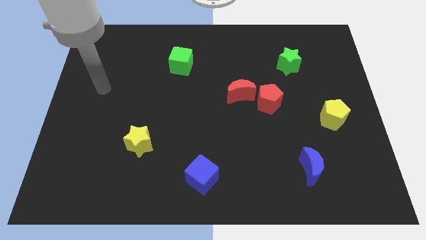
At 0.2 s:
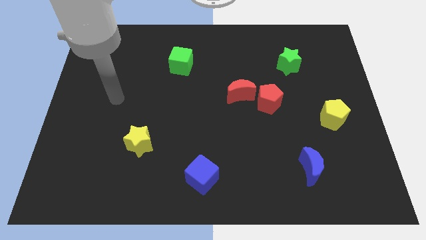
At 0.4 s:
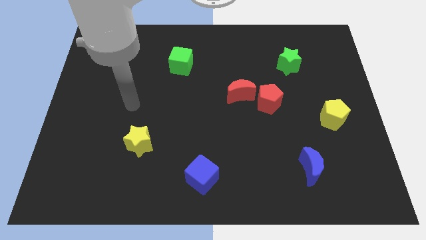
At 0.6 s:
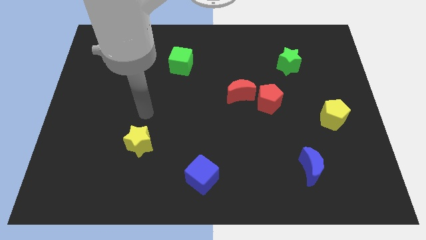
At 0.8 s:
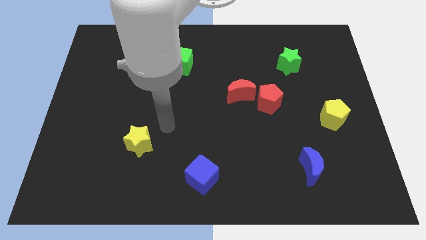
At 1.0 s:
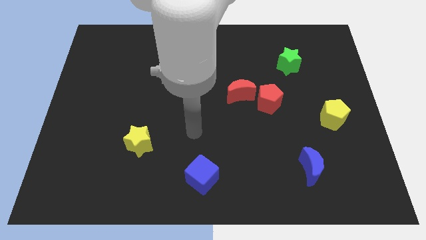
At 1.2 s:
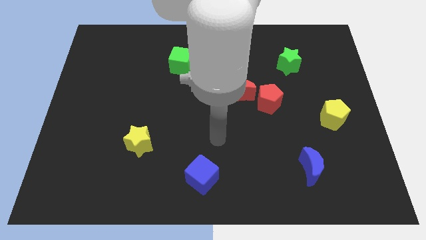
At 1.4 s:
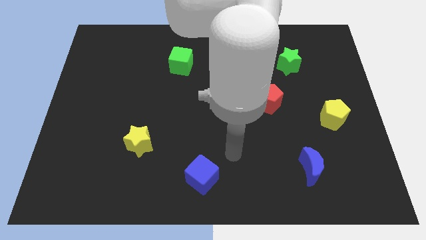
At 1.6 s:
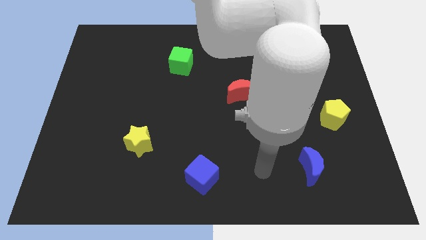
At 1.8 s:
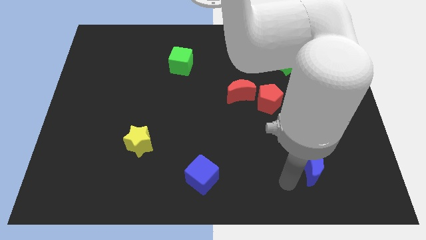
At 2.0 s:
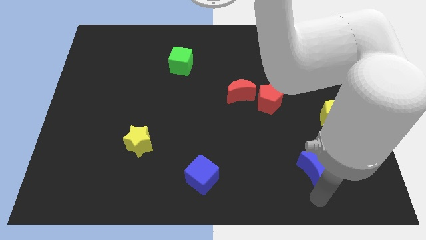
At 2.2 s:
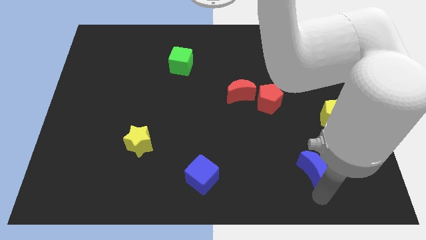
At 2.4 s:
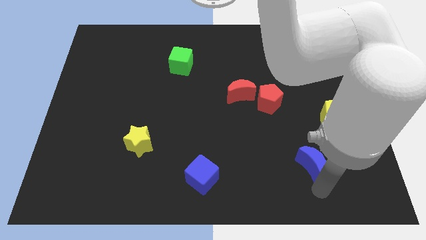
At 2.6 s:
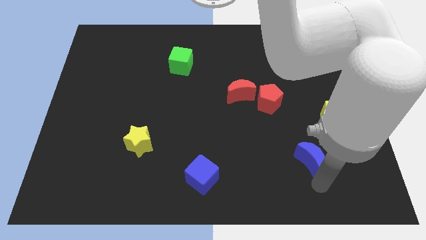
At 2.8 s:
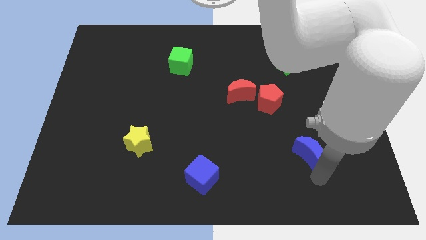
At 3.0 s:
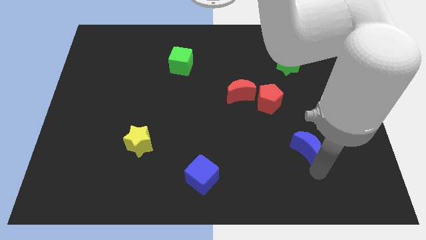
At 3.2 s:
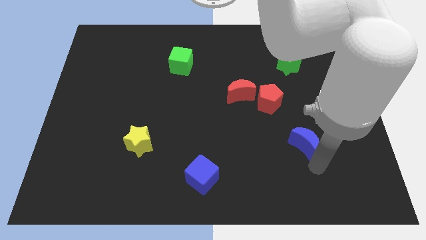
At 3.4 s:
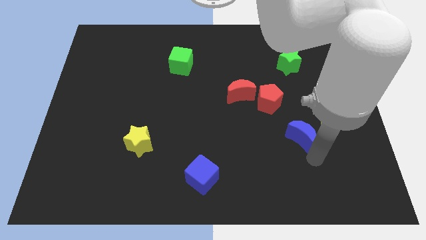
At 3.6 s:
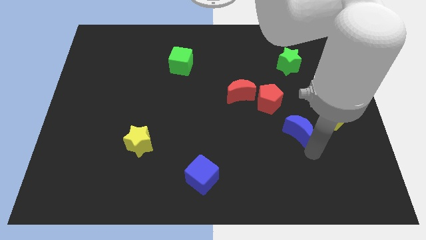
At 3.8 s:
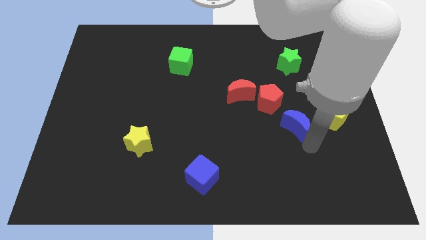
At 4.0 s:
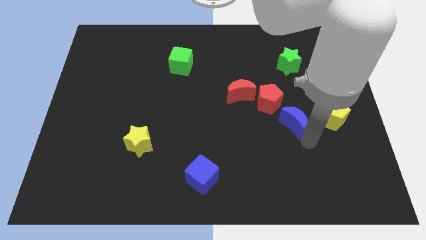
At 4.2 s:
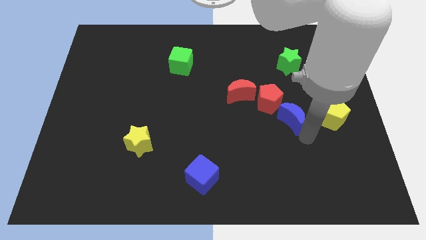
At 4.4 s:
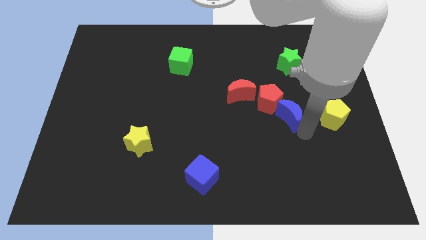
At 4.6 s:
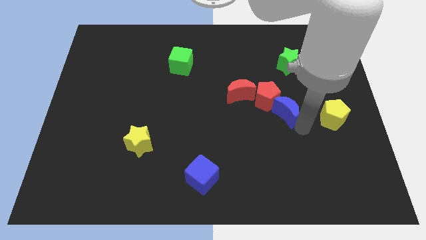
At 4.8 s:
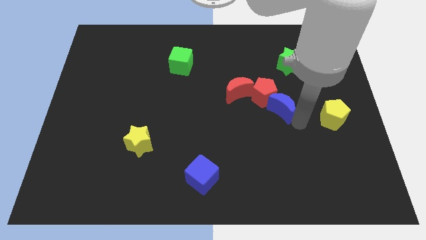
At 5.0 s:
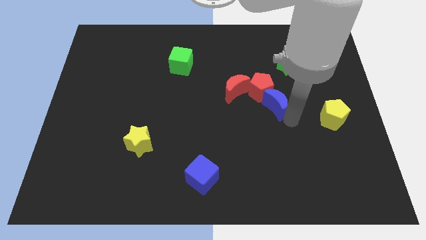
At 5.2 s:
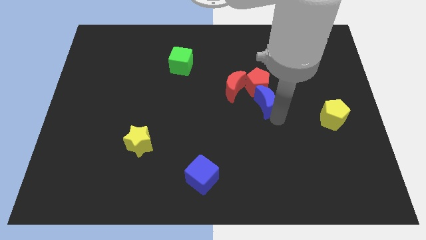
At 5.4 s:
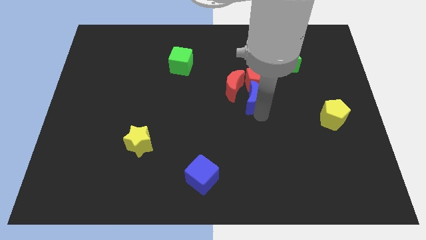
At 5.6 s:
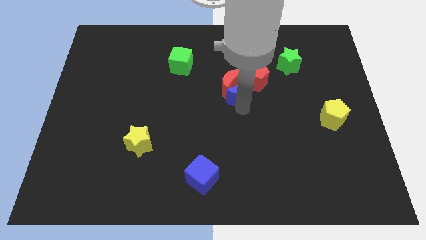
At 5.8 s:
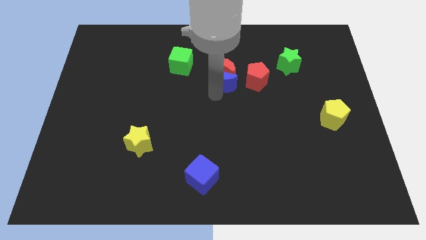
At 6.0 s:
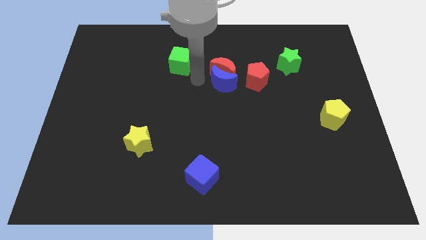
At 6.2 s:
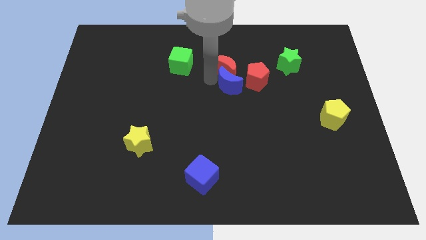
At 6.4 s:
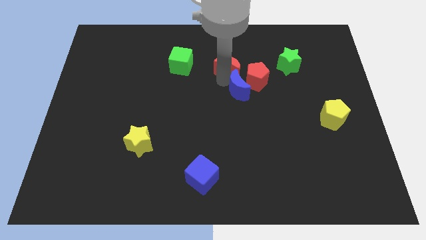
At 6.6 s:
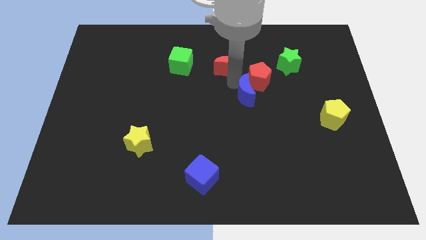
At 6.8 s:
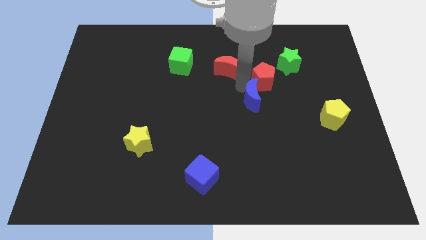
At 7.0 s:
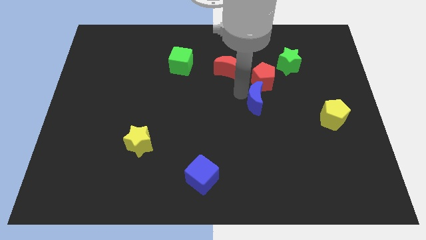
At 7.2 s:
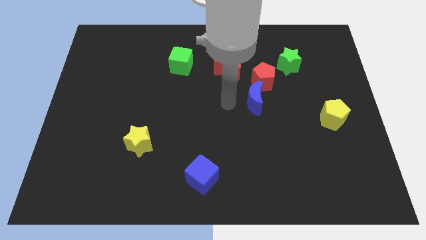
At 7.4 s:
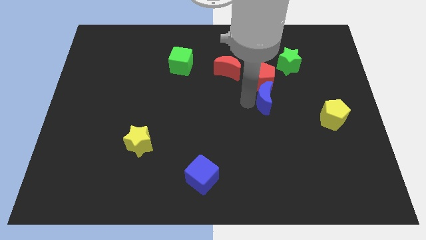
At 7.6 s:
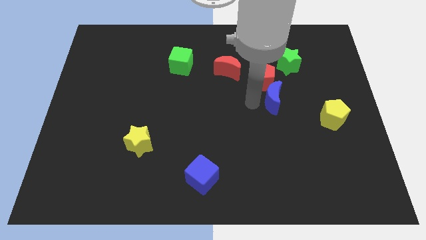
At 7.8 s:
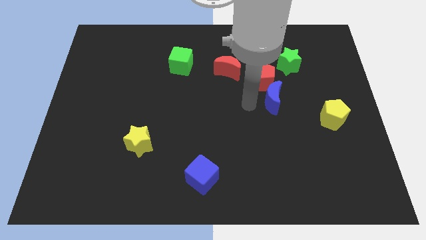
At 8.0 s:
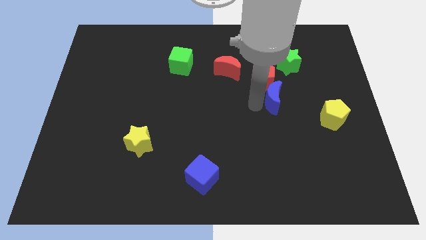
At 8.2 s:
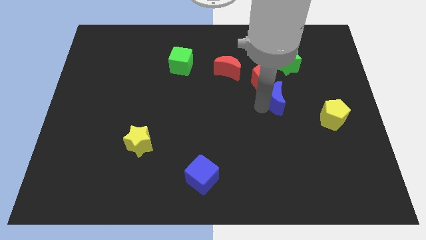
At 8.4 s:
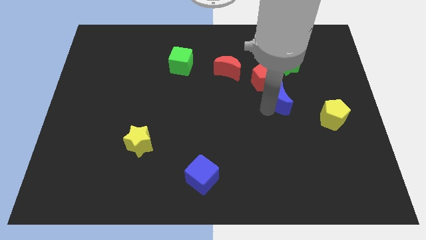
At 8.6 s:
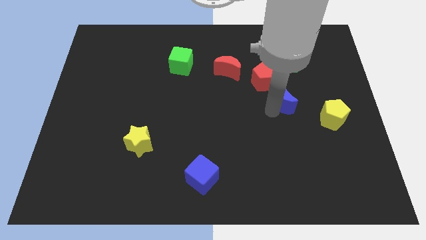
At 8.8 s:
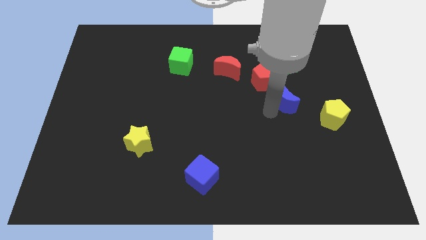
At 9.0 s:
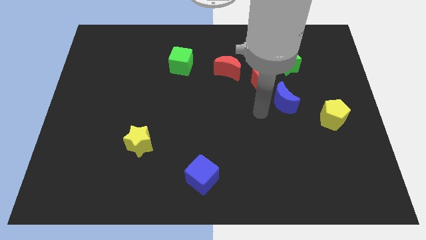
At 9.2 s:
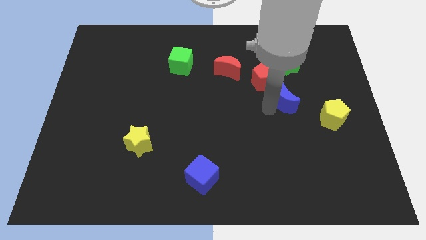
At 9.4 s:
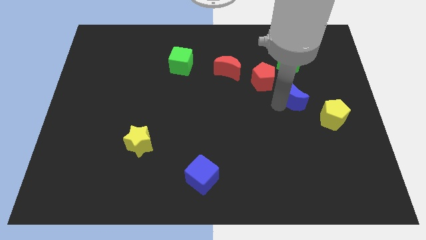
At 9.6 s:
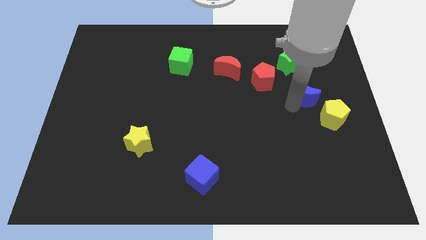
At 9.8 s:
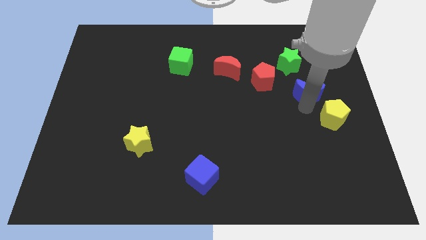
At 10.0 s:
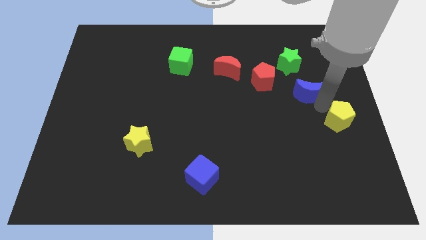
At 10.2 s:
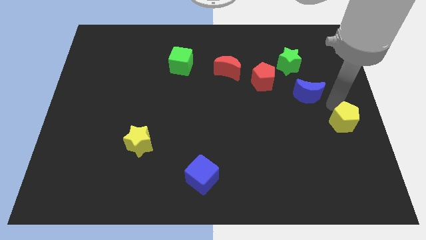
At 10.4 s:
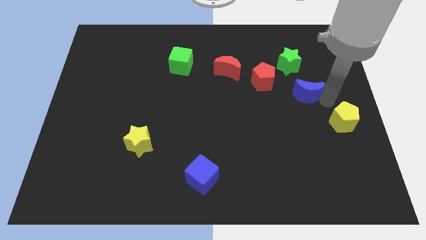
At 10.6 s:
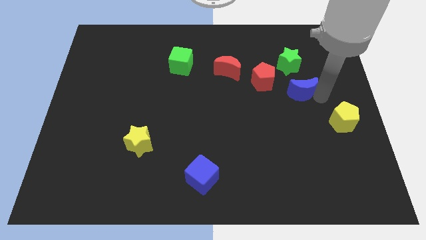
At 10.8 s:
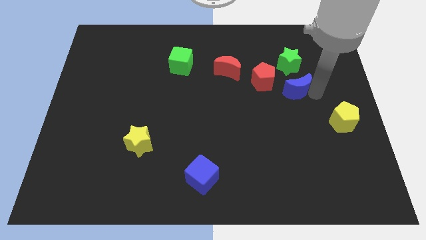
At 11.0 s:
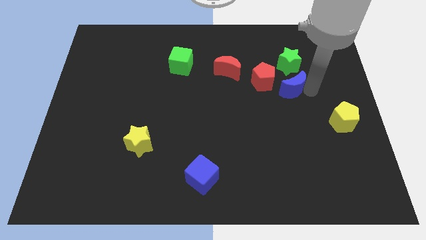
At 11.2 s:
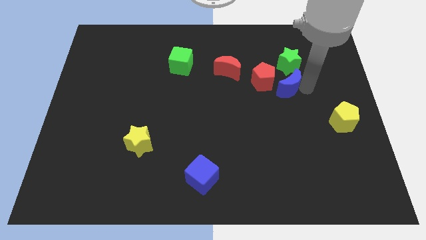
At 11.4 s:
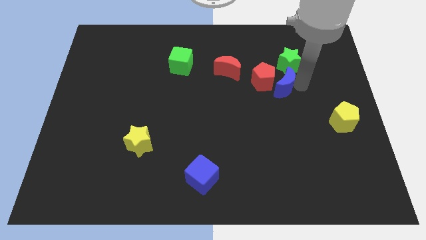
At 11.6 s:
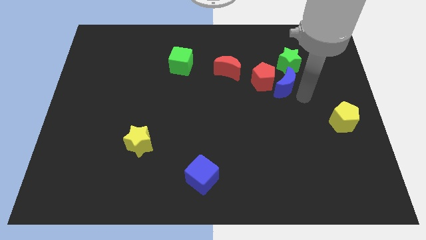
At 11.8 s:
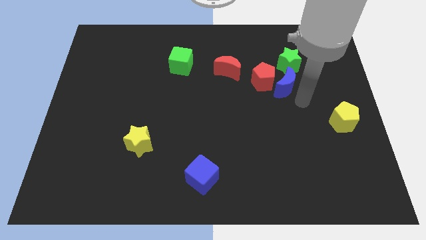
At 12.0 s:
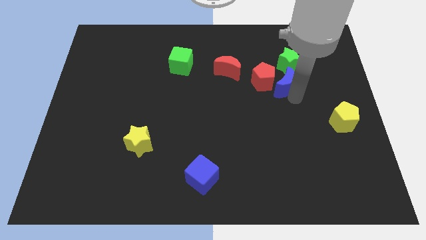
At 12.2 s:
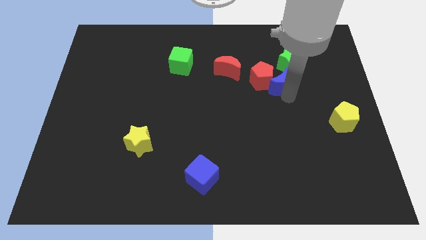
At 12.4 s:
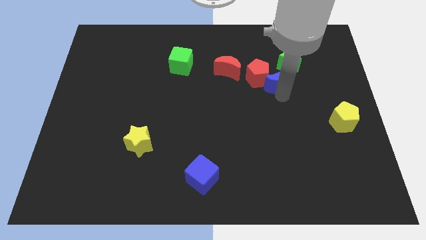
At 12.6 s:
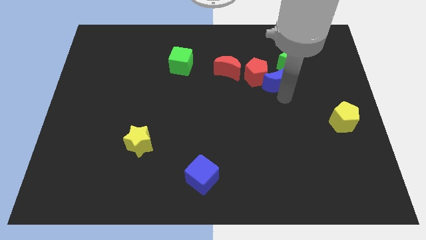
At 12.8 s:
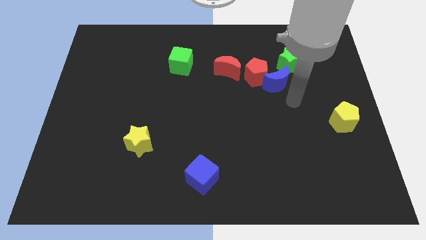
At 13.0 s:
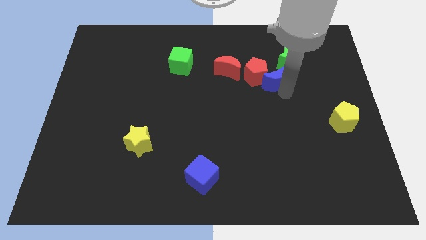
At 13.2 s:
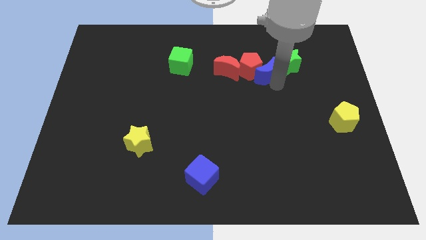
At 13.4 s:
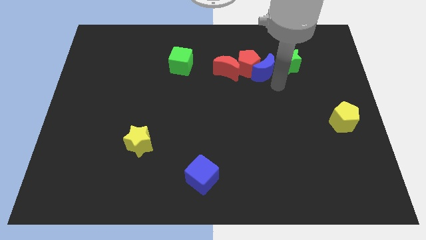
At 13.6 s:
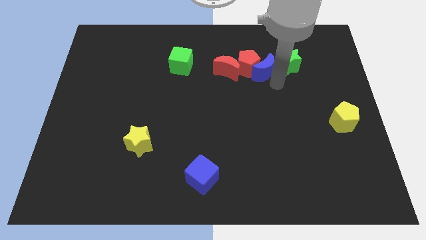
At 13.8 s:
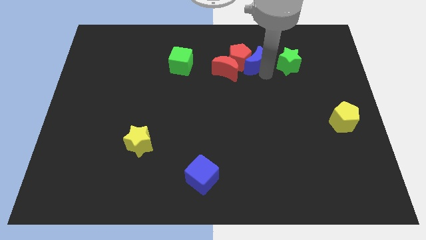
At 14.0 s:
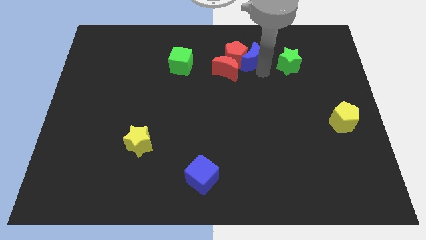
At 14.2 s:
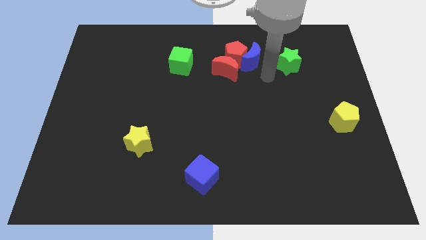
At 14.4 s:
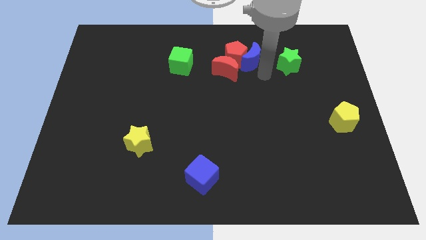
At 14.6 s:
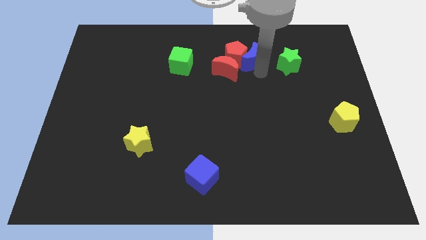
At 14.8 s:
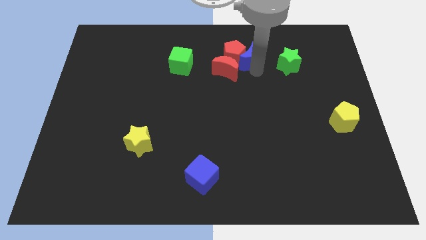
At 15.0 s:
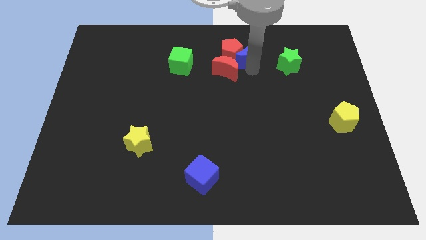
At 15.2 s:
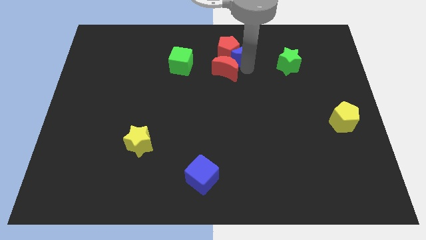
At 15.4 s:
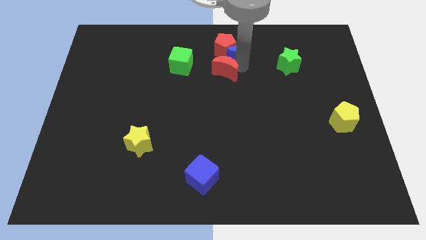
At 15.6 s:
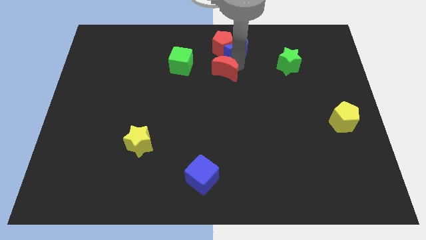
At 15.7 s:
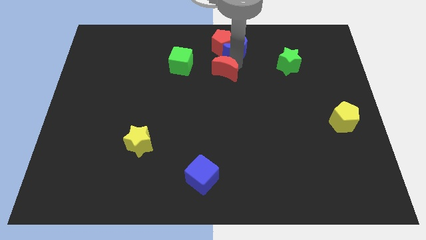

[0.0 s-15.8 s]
put the blue moon to the top side
